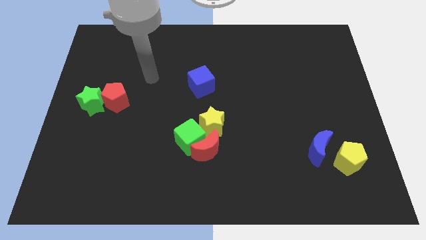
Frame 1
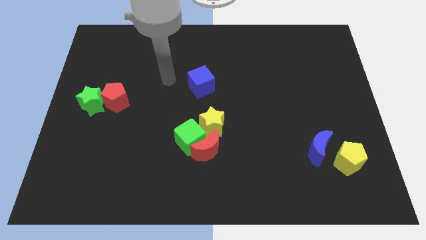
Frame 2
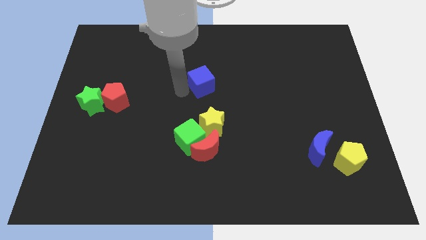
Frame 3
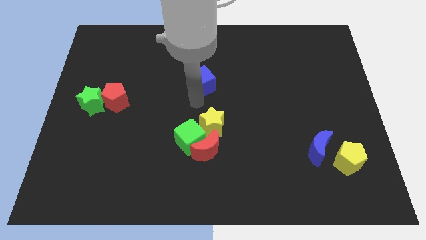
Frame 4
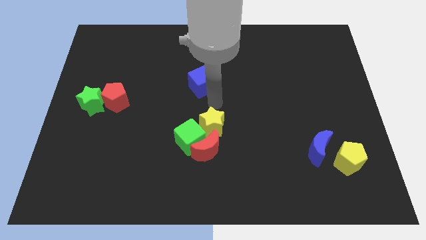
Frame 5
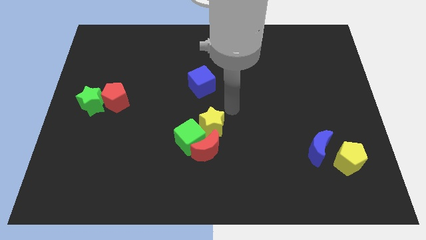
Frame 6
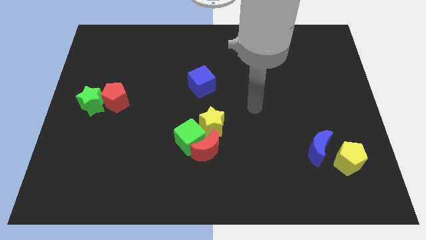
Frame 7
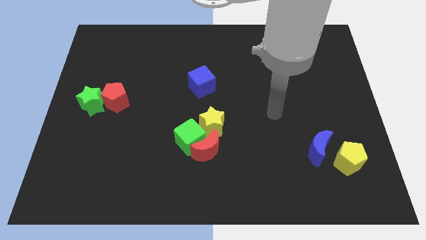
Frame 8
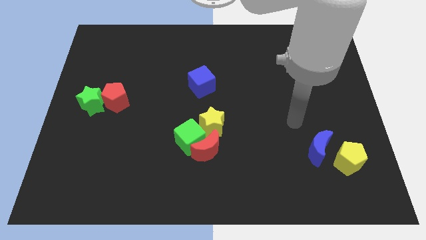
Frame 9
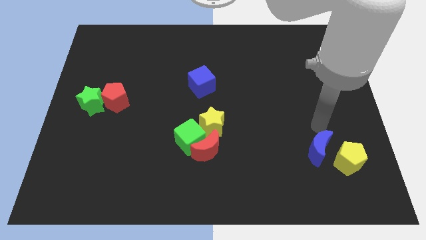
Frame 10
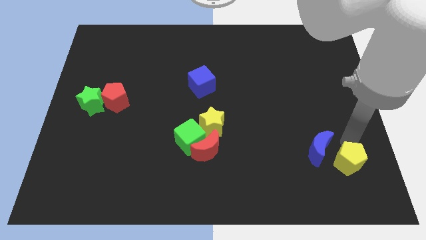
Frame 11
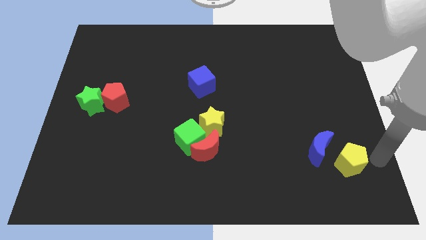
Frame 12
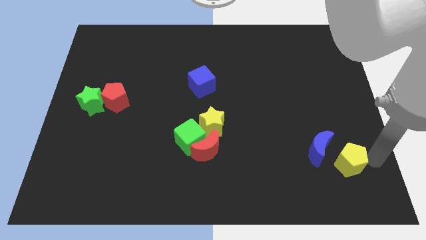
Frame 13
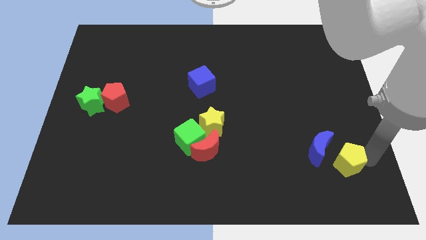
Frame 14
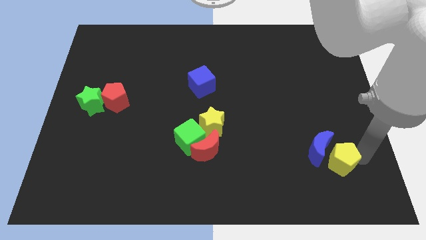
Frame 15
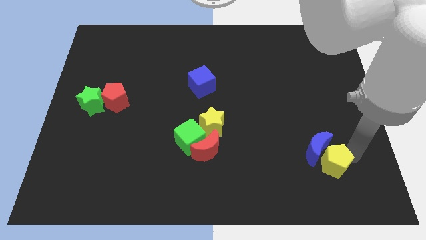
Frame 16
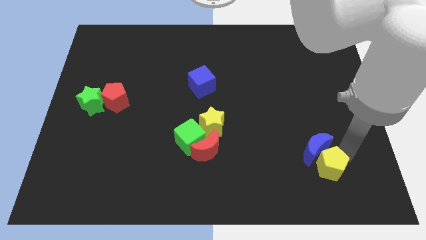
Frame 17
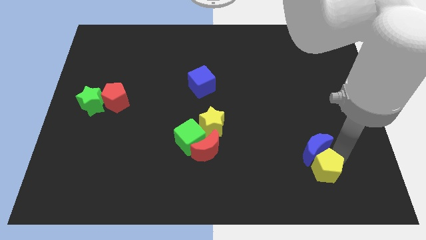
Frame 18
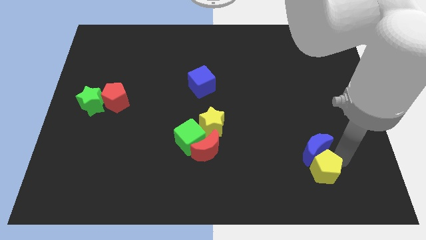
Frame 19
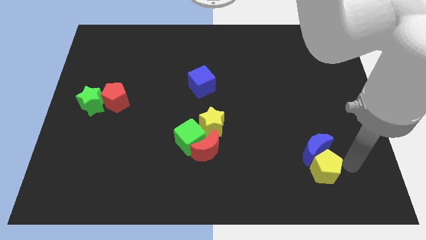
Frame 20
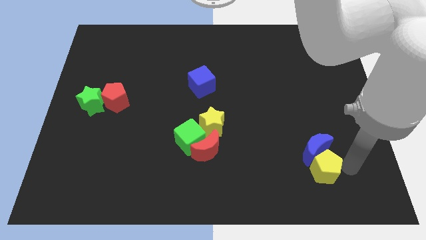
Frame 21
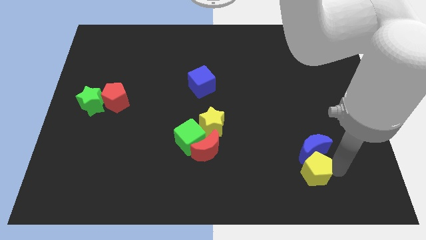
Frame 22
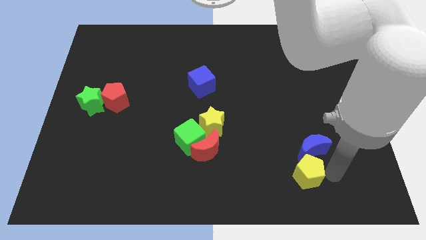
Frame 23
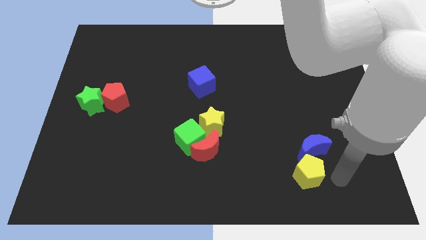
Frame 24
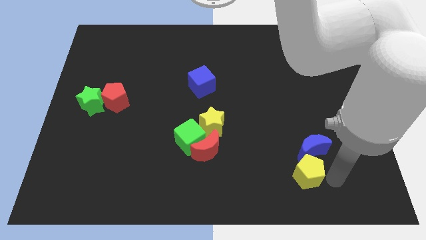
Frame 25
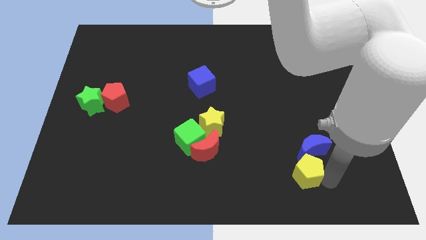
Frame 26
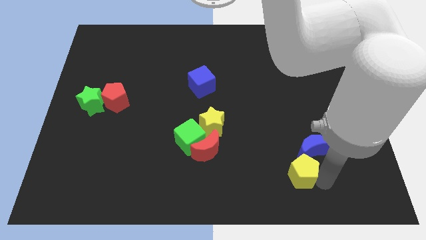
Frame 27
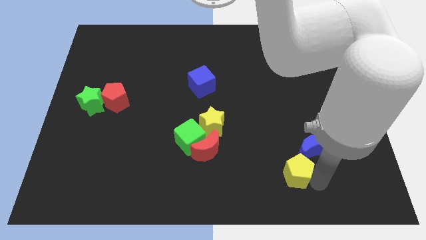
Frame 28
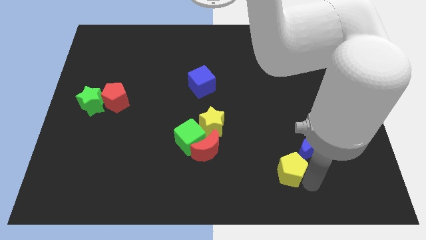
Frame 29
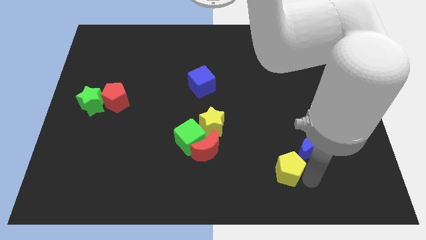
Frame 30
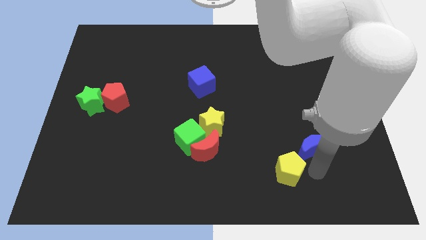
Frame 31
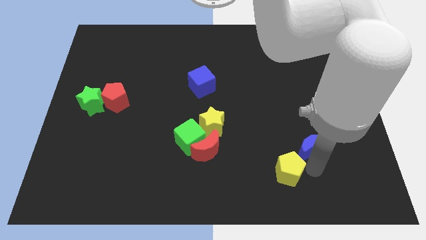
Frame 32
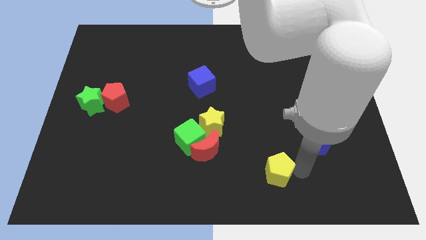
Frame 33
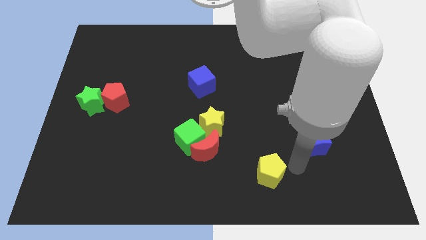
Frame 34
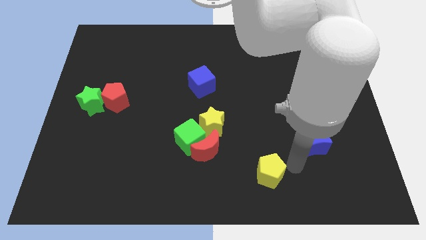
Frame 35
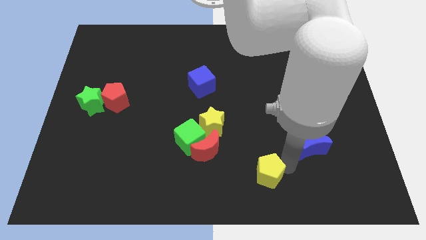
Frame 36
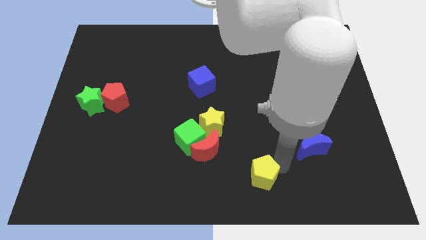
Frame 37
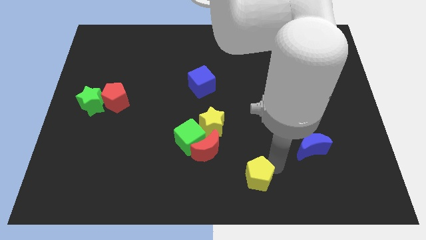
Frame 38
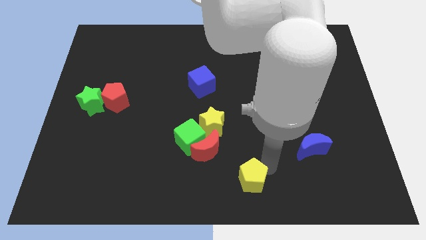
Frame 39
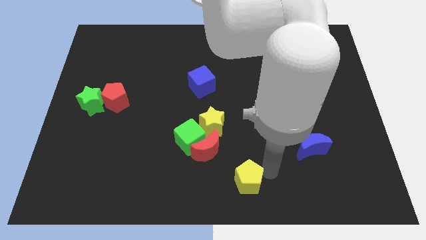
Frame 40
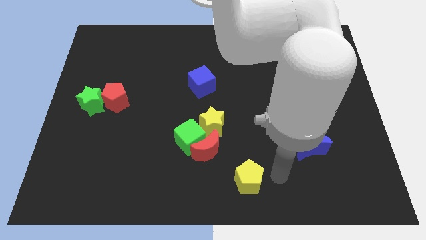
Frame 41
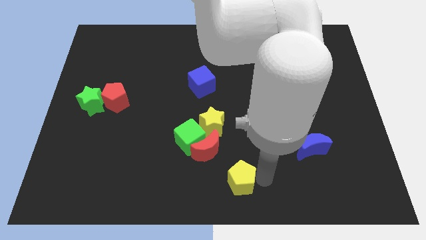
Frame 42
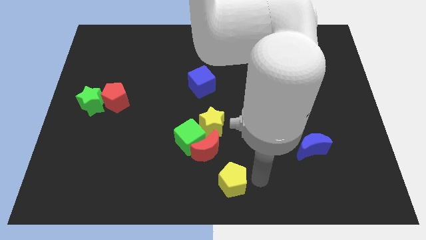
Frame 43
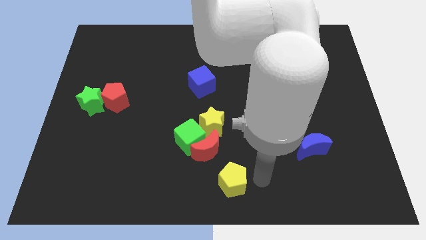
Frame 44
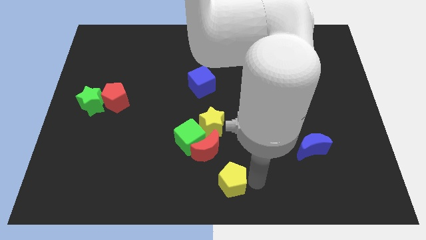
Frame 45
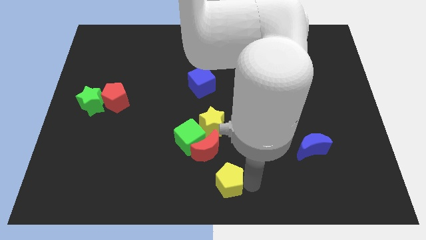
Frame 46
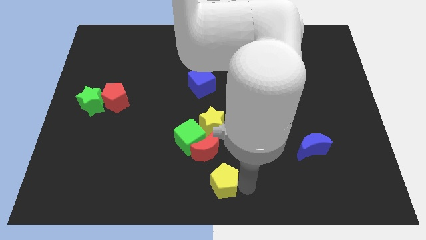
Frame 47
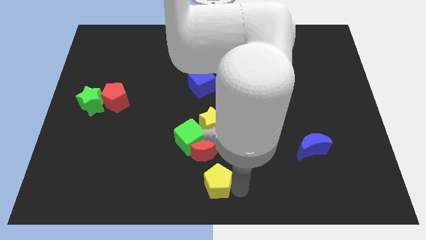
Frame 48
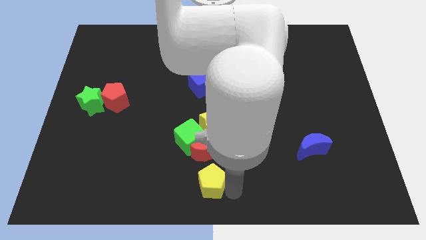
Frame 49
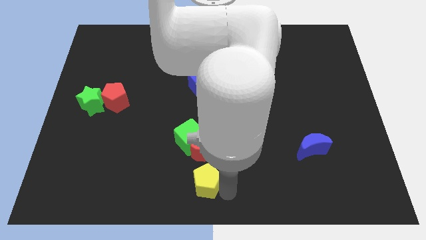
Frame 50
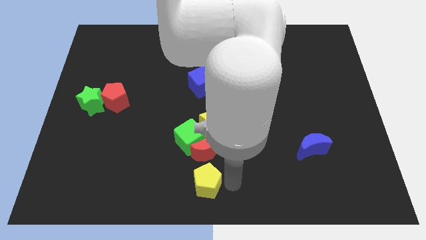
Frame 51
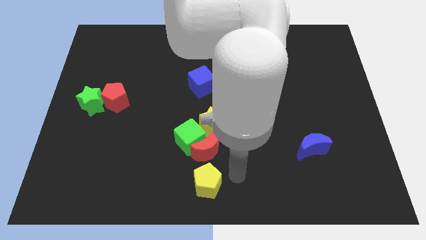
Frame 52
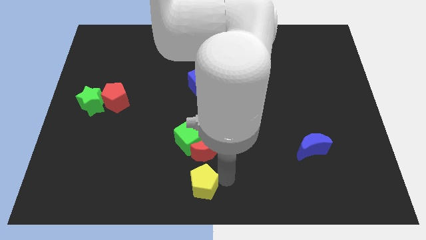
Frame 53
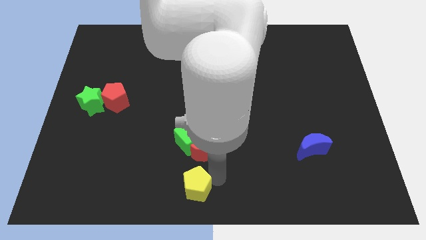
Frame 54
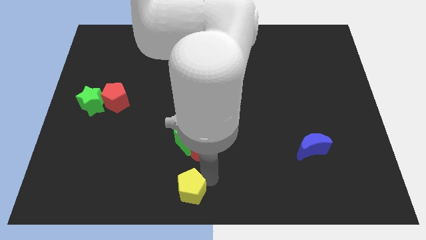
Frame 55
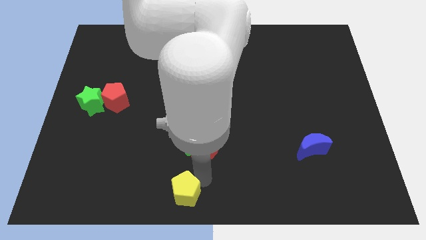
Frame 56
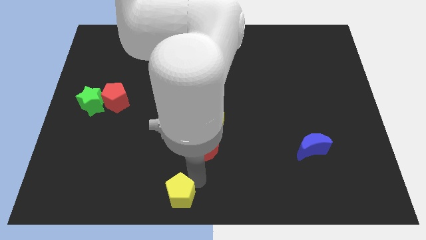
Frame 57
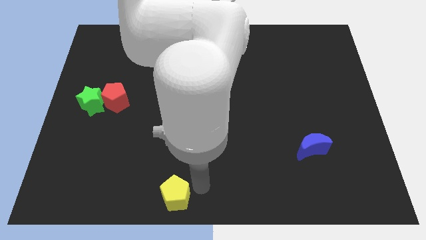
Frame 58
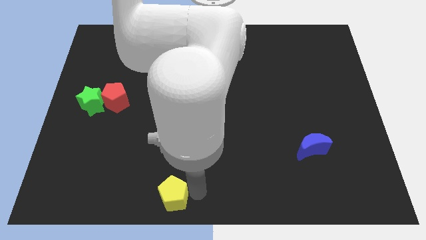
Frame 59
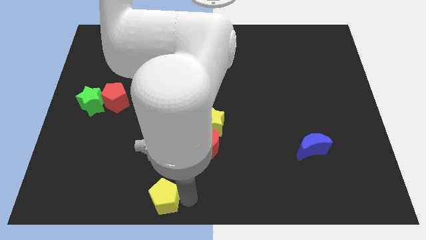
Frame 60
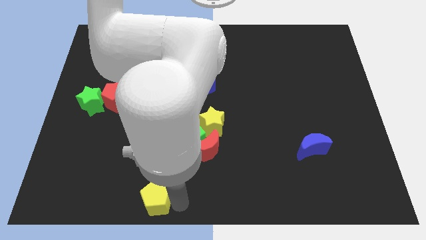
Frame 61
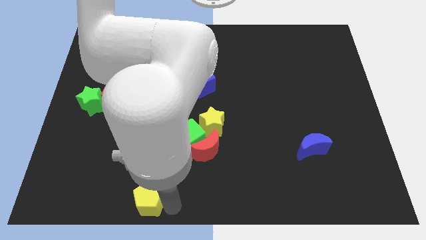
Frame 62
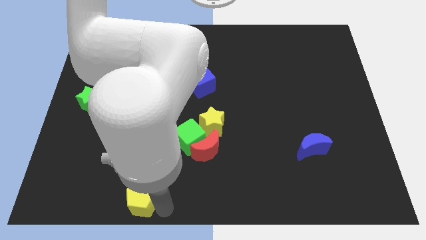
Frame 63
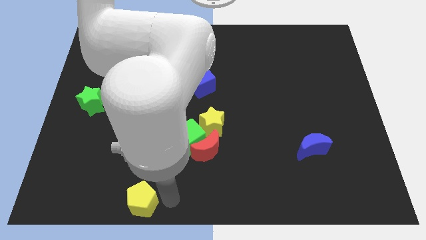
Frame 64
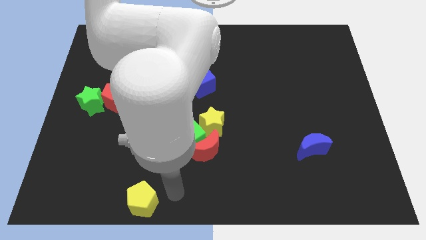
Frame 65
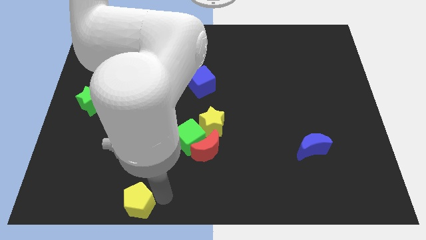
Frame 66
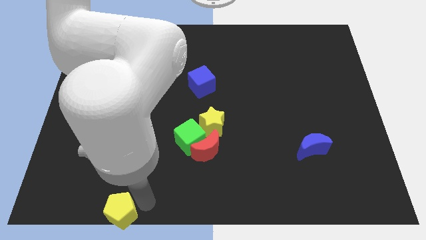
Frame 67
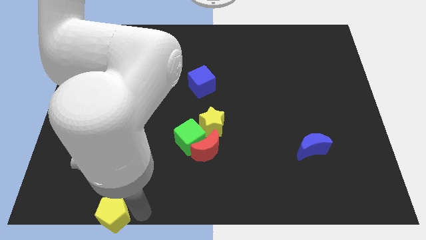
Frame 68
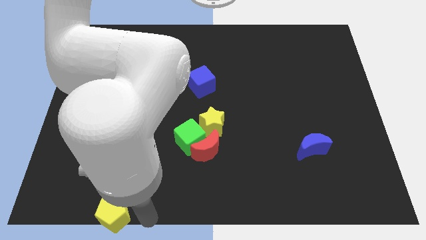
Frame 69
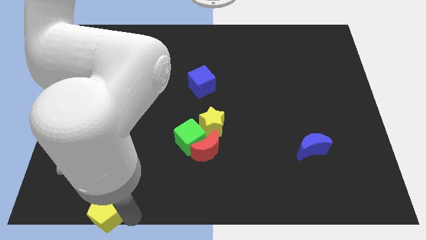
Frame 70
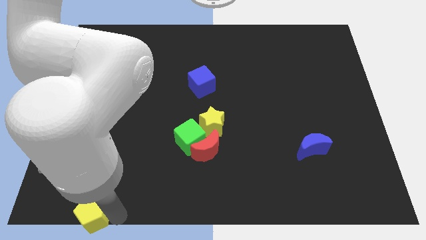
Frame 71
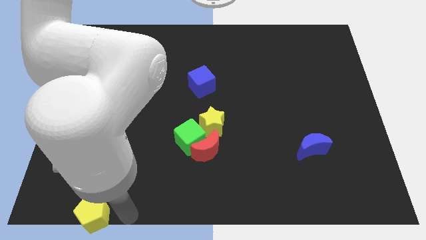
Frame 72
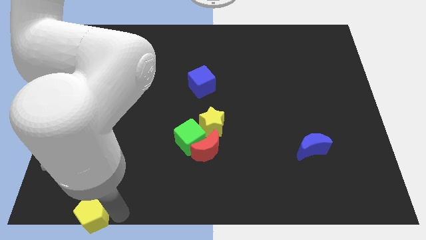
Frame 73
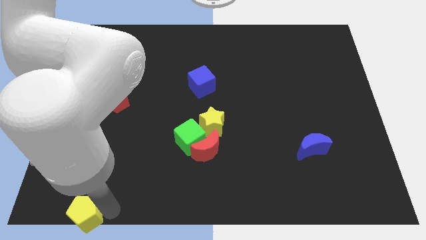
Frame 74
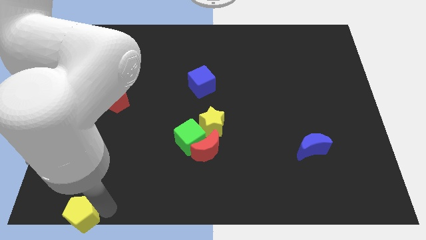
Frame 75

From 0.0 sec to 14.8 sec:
slide the yellow pentagon to the bottom left

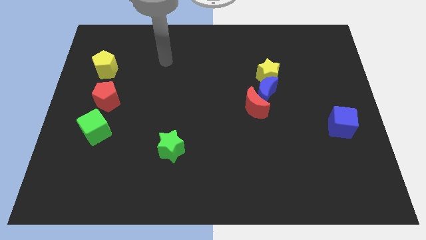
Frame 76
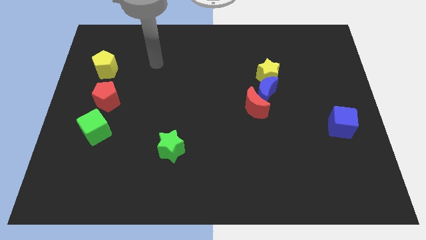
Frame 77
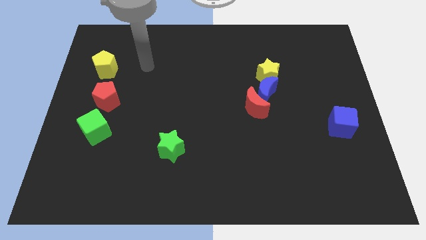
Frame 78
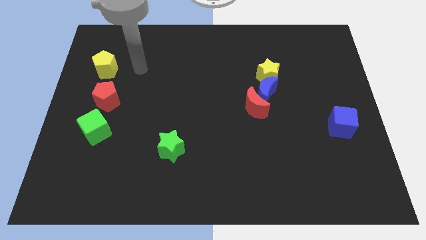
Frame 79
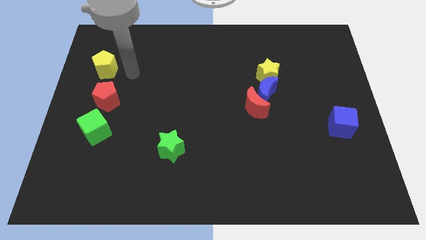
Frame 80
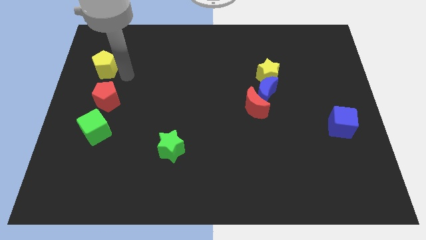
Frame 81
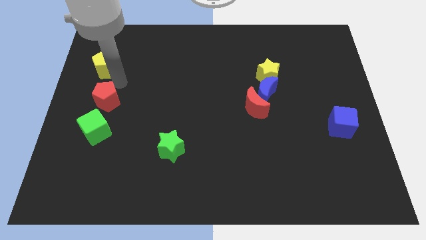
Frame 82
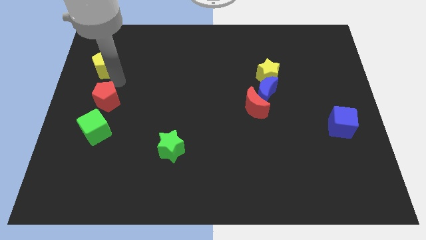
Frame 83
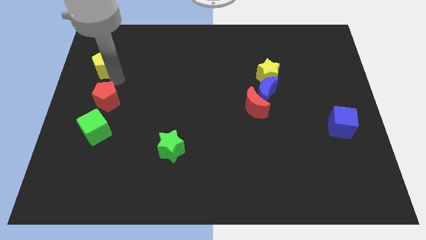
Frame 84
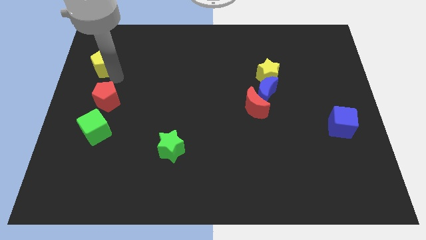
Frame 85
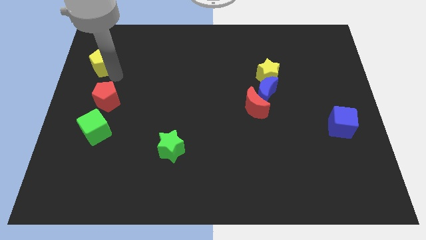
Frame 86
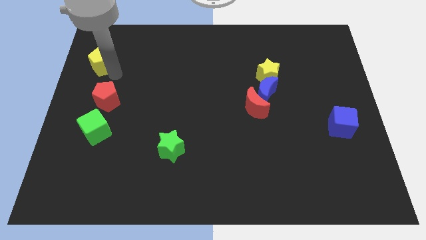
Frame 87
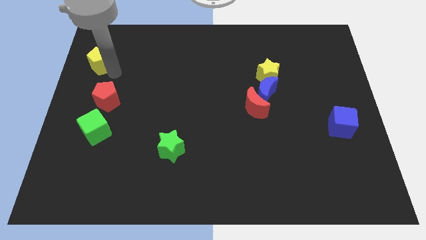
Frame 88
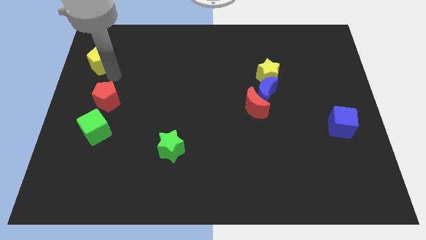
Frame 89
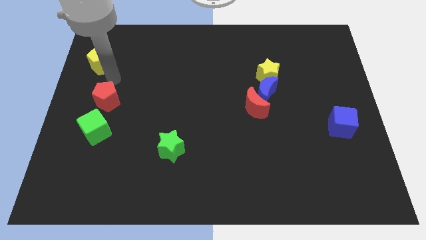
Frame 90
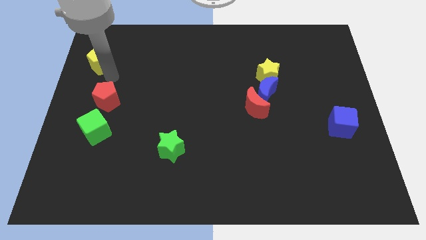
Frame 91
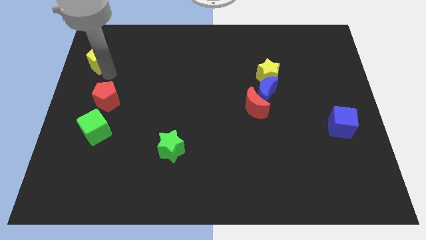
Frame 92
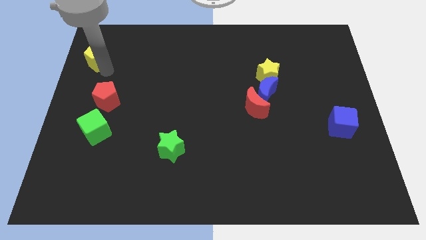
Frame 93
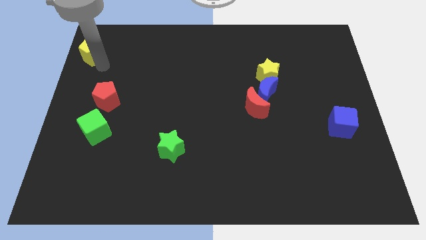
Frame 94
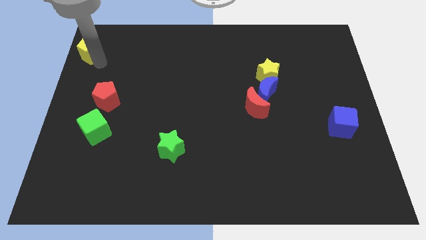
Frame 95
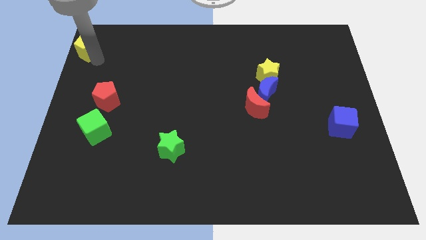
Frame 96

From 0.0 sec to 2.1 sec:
push the yellow pentagon to the top left of the board
